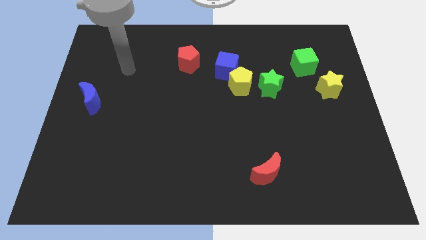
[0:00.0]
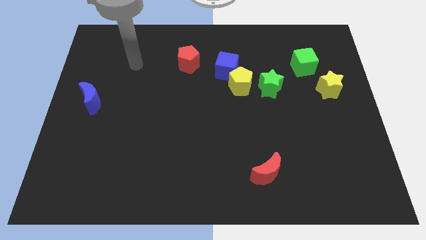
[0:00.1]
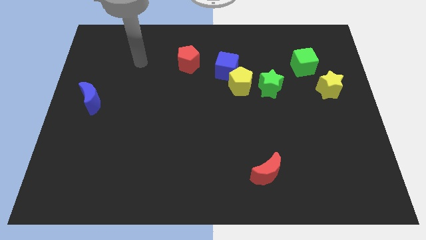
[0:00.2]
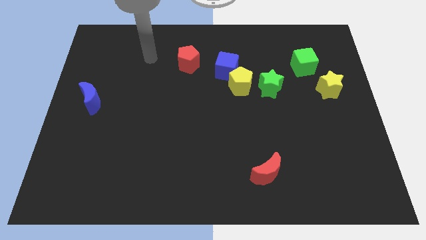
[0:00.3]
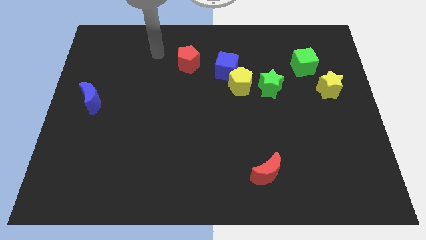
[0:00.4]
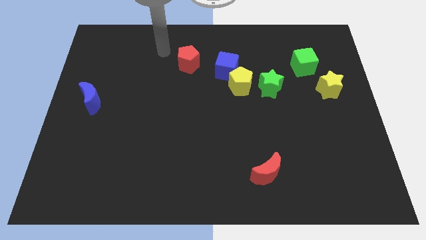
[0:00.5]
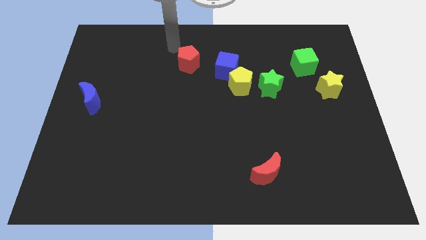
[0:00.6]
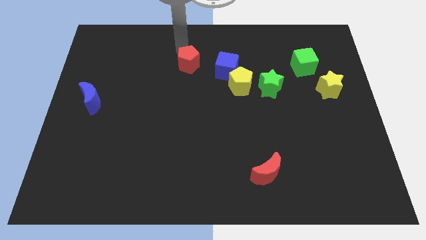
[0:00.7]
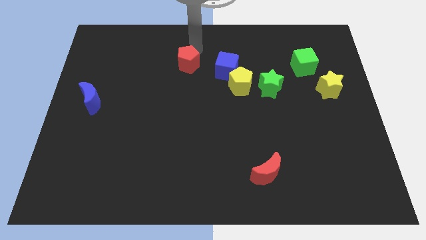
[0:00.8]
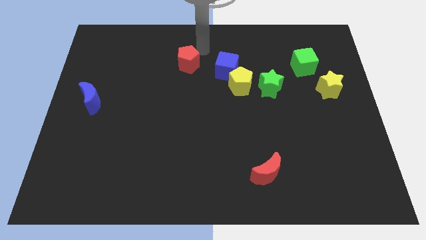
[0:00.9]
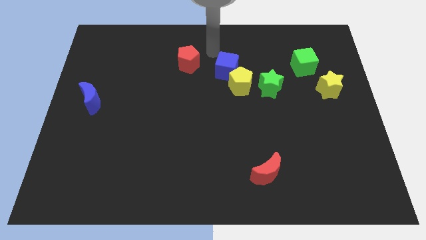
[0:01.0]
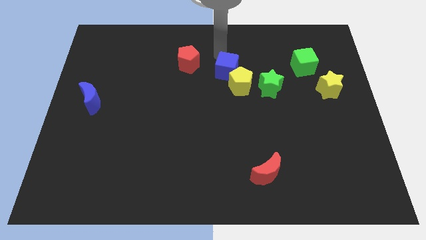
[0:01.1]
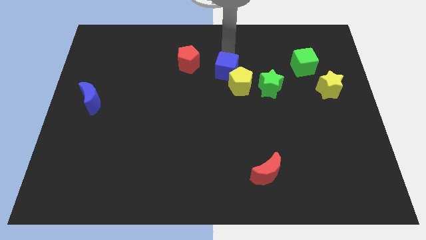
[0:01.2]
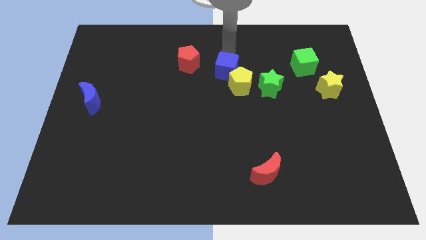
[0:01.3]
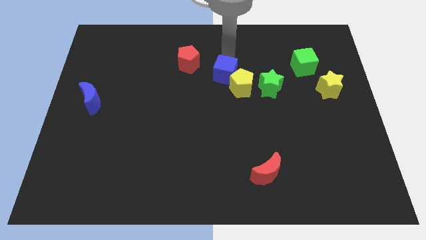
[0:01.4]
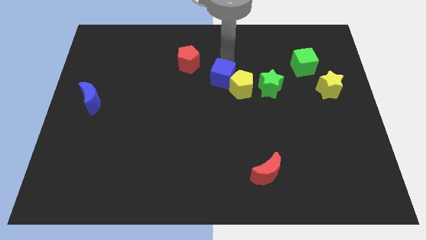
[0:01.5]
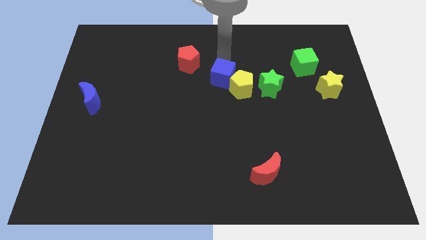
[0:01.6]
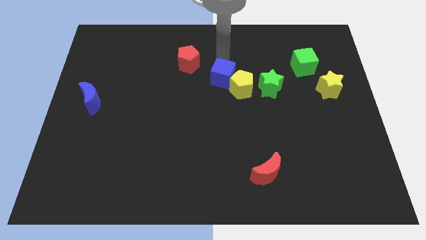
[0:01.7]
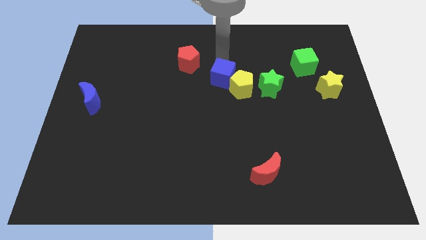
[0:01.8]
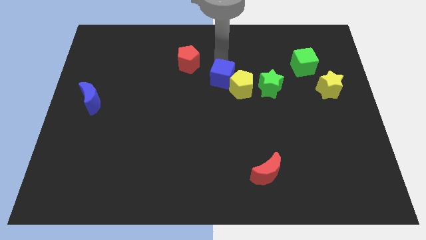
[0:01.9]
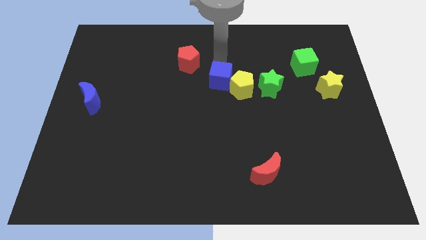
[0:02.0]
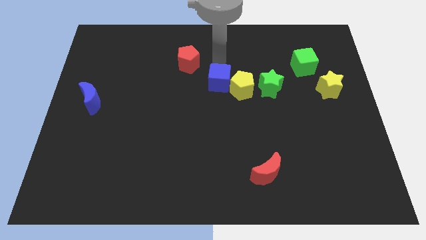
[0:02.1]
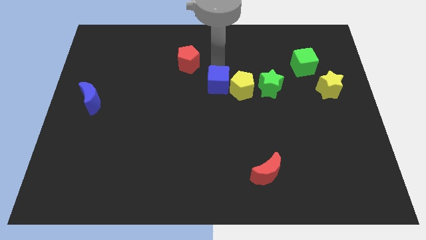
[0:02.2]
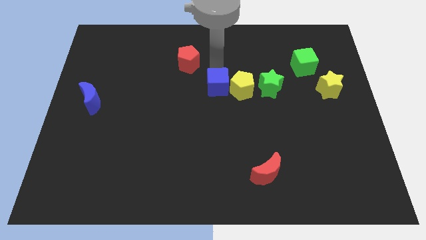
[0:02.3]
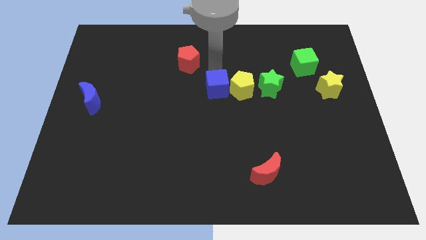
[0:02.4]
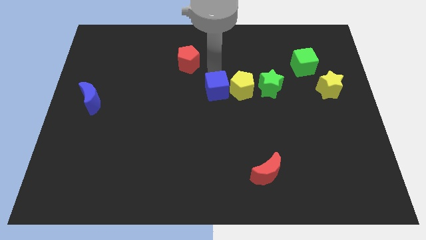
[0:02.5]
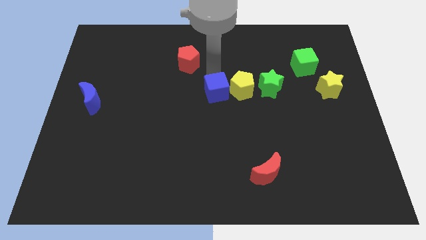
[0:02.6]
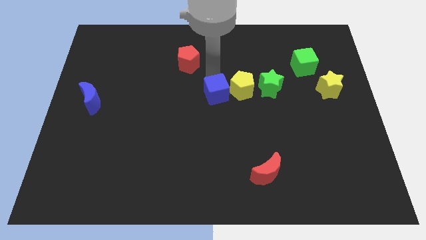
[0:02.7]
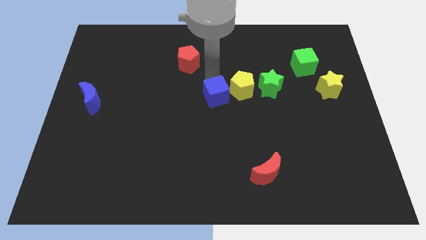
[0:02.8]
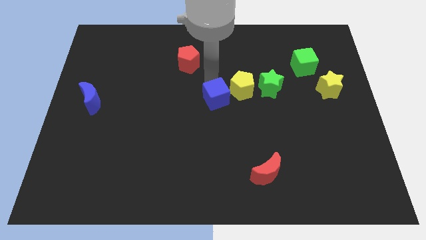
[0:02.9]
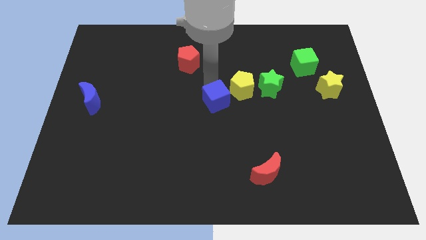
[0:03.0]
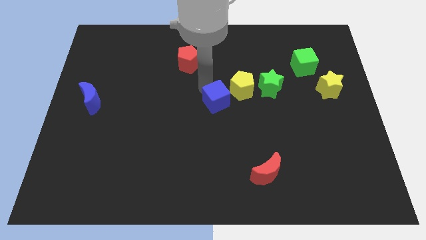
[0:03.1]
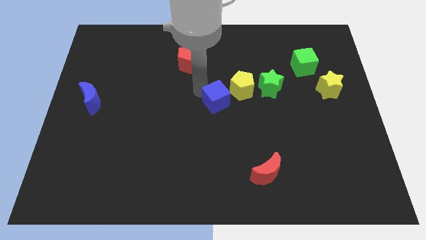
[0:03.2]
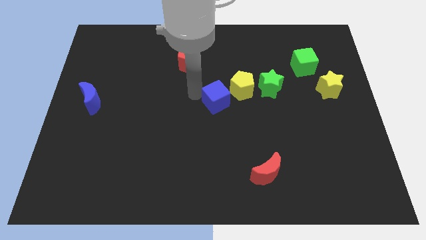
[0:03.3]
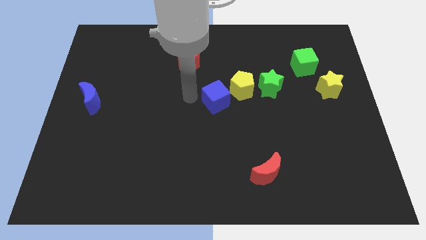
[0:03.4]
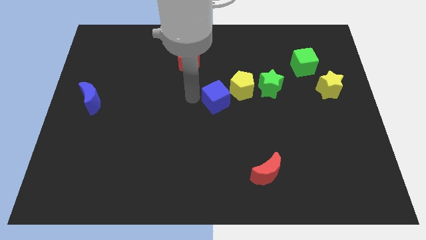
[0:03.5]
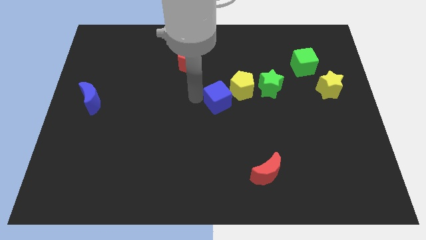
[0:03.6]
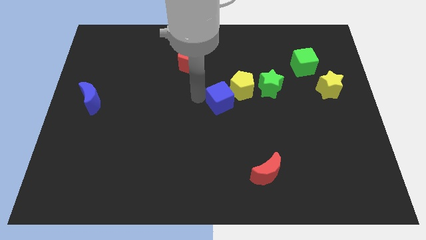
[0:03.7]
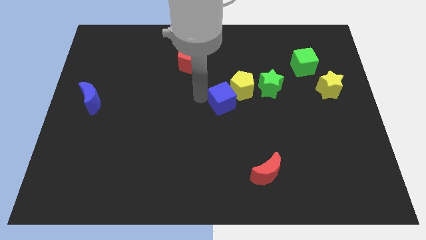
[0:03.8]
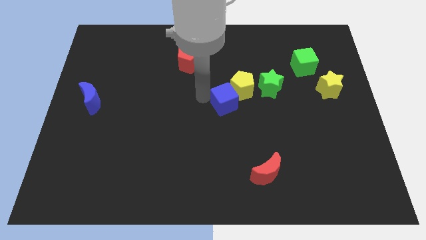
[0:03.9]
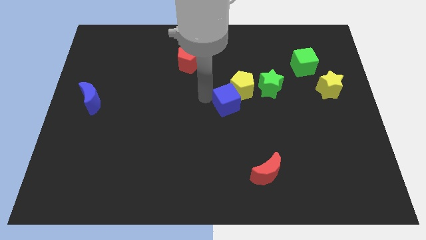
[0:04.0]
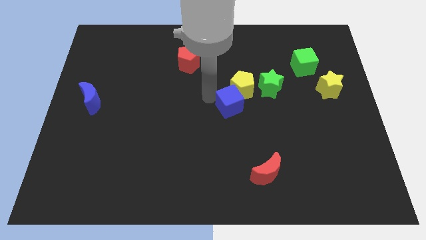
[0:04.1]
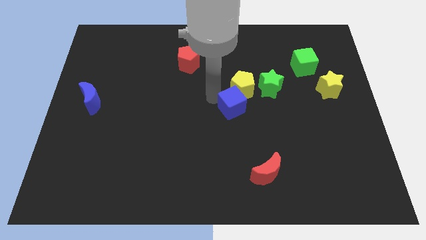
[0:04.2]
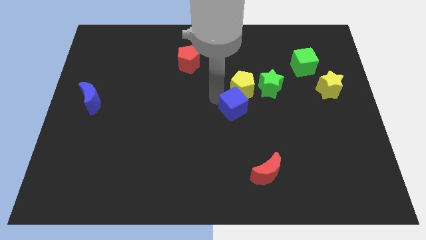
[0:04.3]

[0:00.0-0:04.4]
move the blue cube down and right diagonally slightly

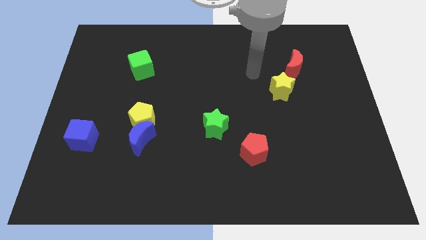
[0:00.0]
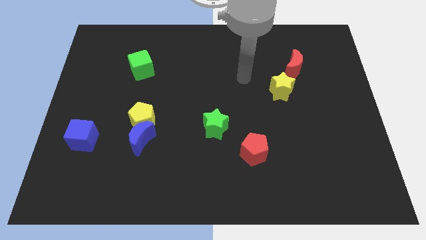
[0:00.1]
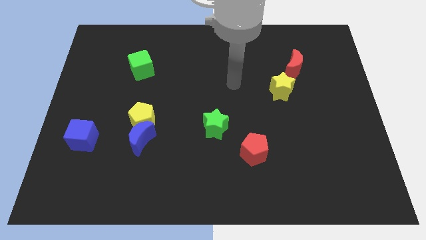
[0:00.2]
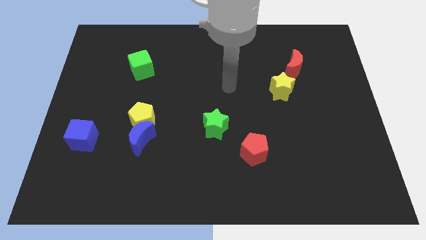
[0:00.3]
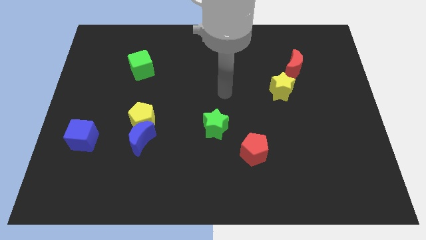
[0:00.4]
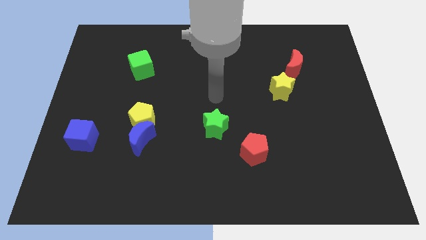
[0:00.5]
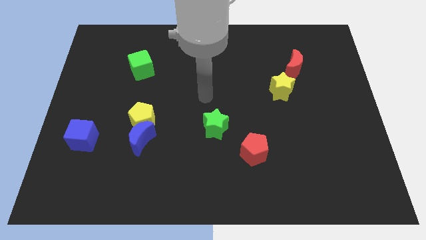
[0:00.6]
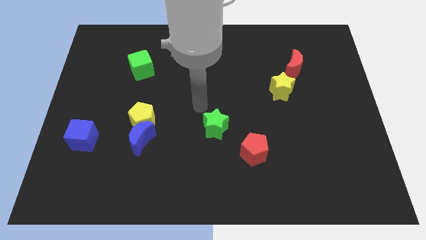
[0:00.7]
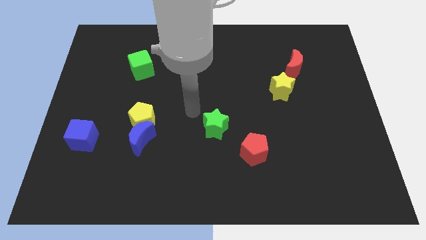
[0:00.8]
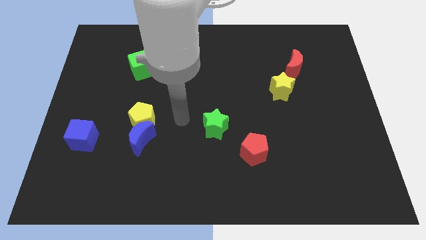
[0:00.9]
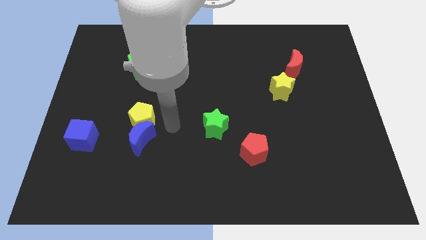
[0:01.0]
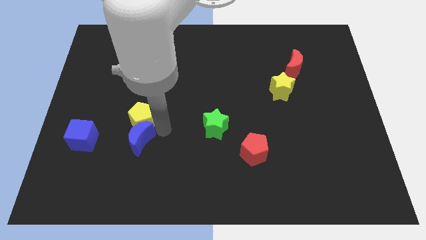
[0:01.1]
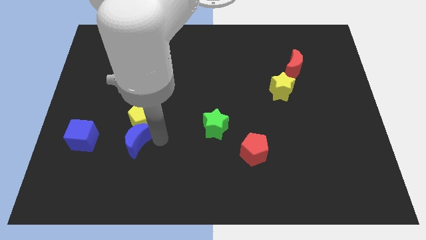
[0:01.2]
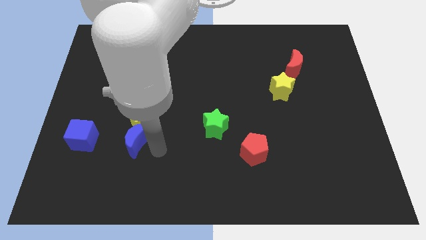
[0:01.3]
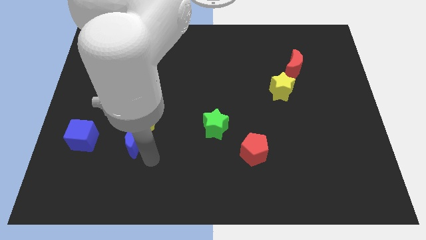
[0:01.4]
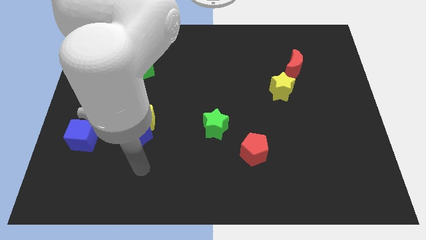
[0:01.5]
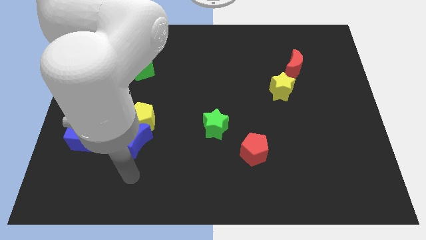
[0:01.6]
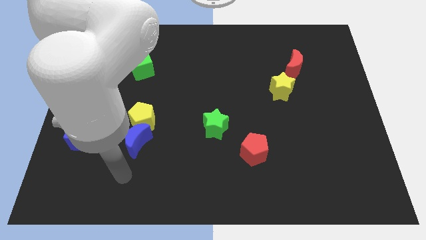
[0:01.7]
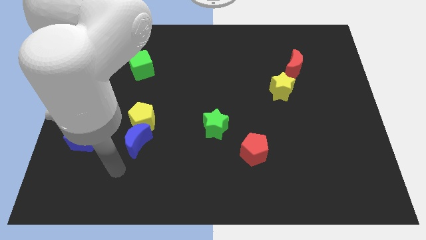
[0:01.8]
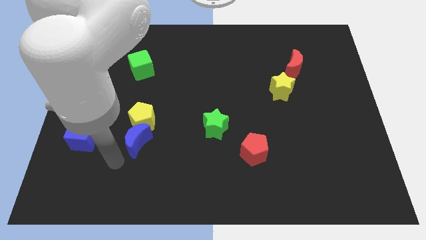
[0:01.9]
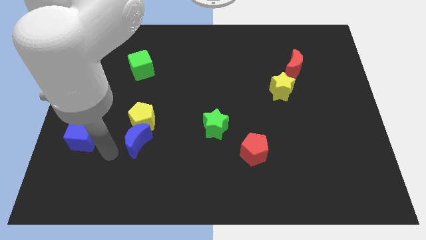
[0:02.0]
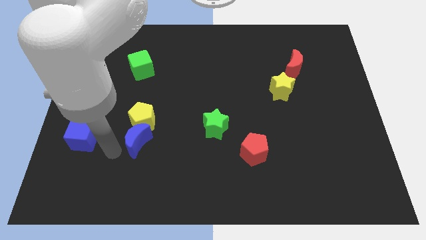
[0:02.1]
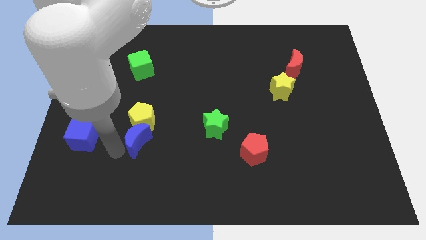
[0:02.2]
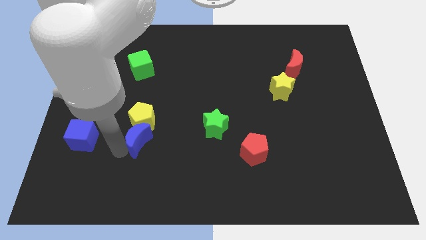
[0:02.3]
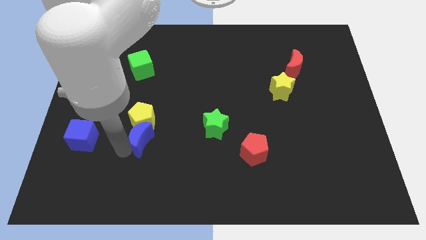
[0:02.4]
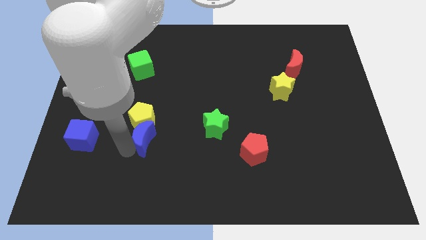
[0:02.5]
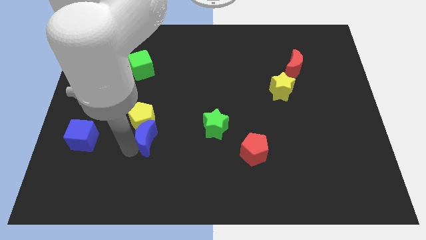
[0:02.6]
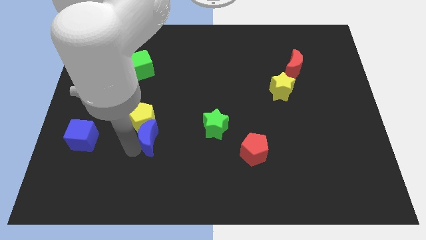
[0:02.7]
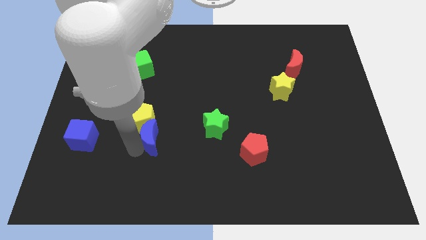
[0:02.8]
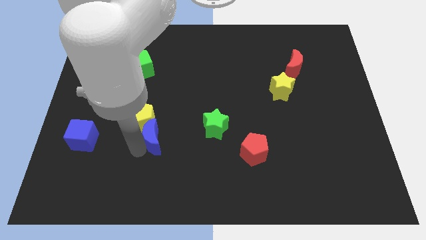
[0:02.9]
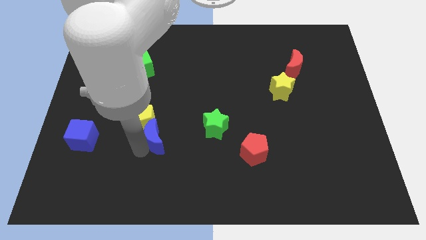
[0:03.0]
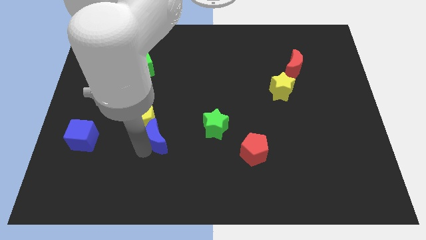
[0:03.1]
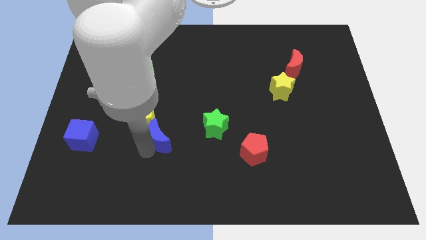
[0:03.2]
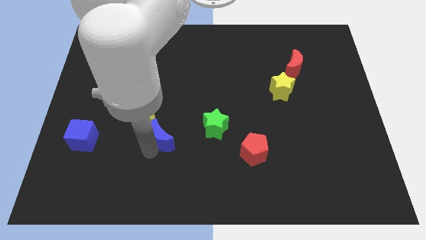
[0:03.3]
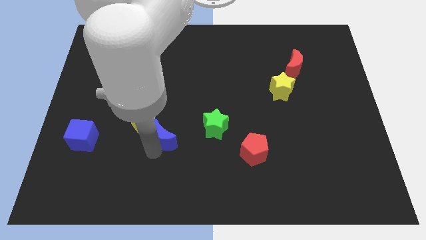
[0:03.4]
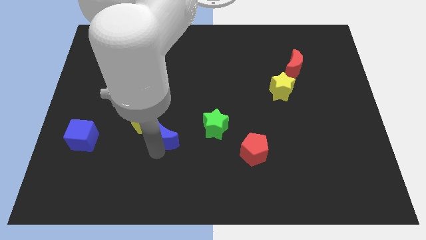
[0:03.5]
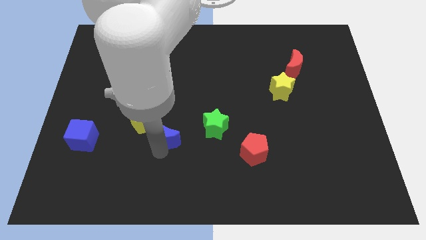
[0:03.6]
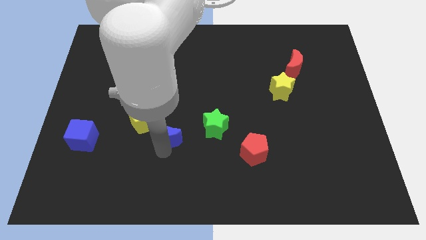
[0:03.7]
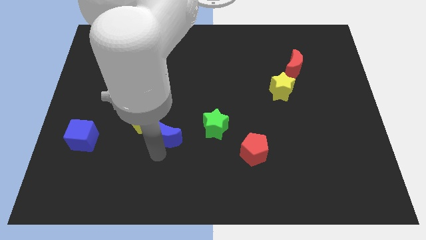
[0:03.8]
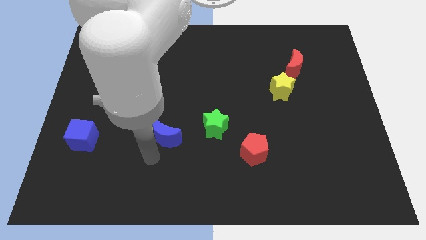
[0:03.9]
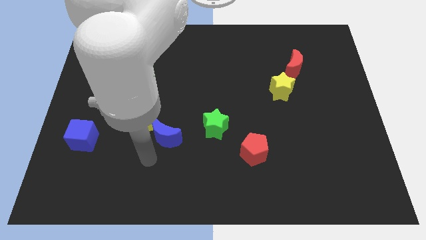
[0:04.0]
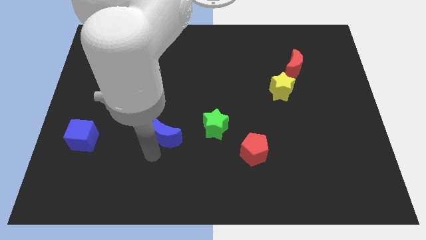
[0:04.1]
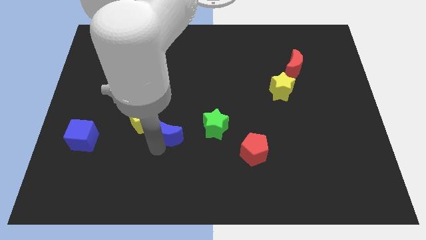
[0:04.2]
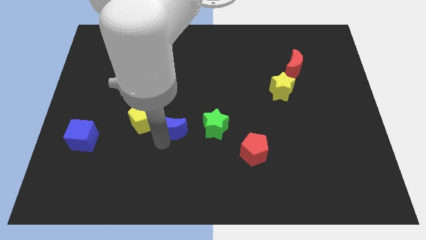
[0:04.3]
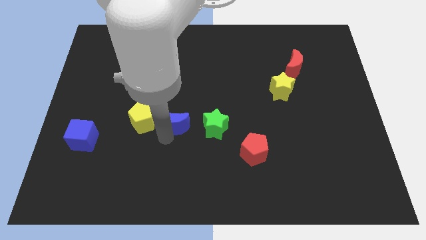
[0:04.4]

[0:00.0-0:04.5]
push the blue moon upwards and then to the right a bit
